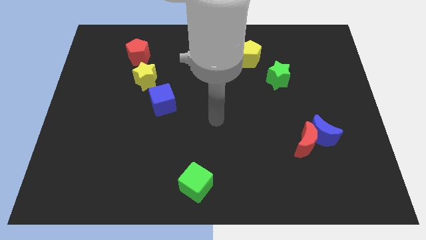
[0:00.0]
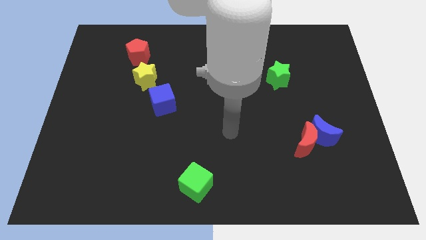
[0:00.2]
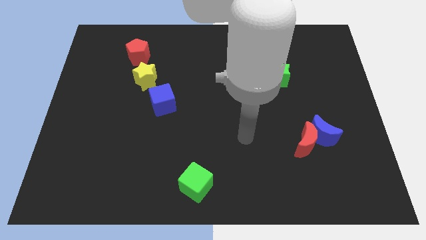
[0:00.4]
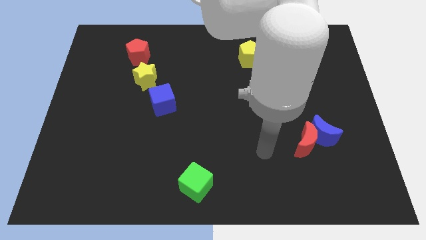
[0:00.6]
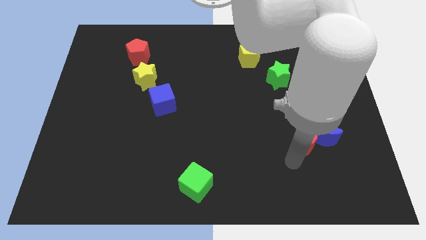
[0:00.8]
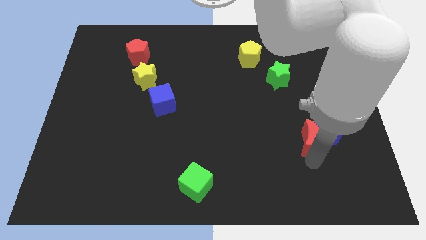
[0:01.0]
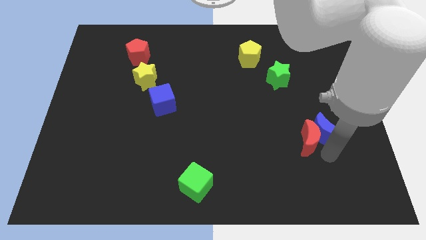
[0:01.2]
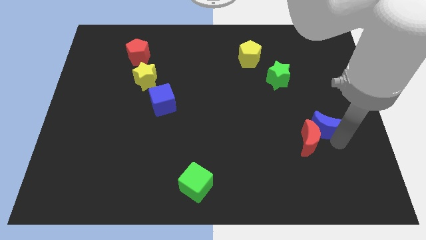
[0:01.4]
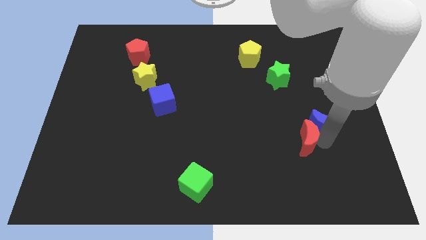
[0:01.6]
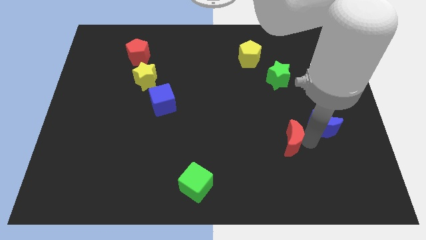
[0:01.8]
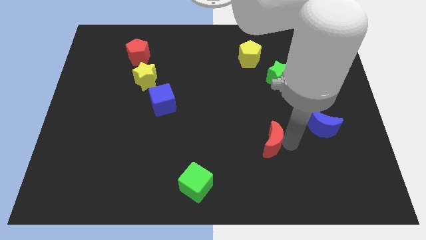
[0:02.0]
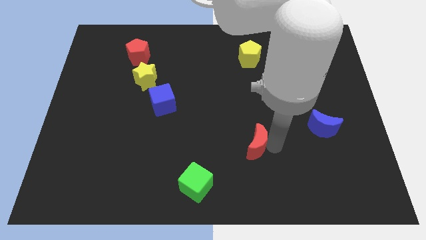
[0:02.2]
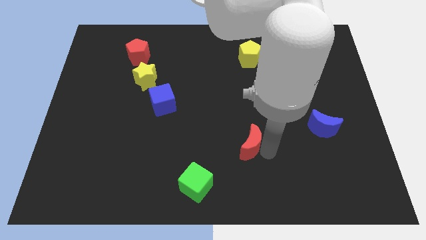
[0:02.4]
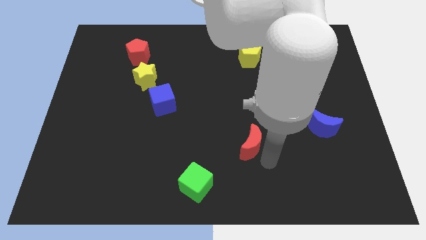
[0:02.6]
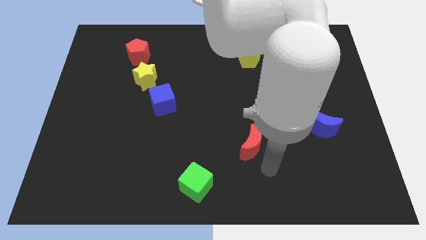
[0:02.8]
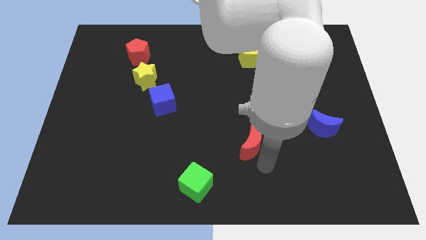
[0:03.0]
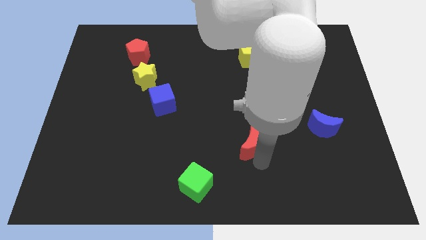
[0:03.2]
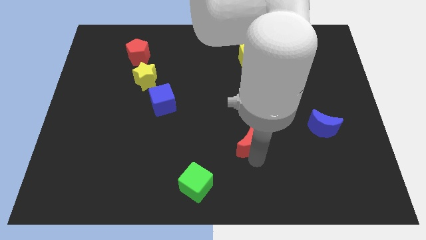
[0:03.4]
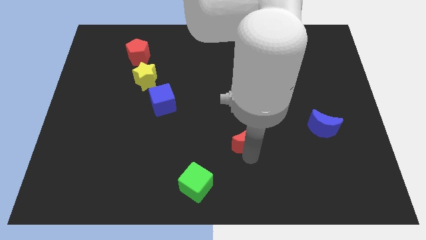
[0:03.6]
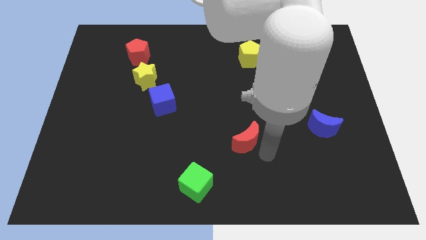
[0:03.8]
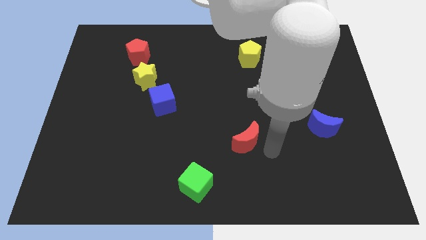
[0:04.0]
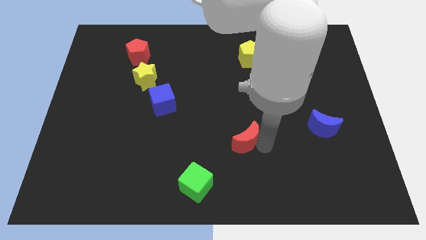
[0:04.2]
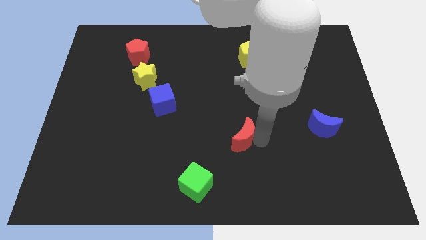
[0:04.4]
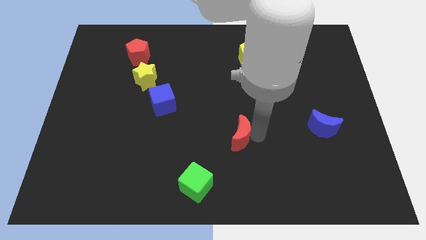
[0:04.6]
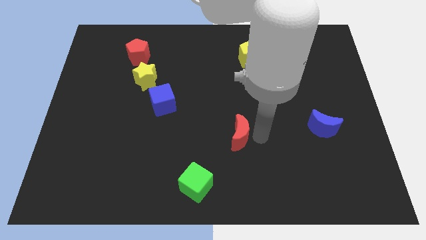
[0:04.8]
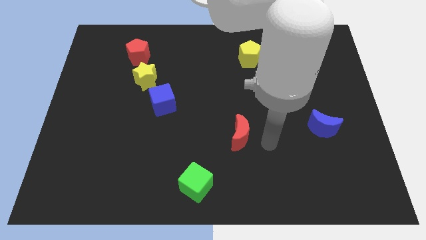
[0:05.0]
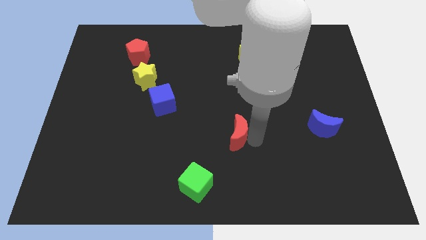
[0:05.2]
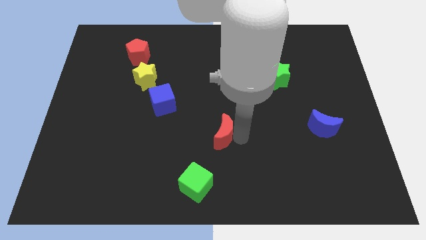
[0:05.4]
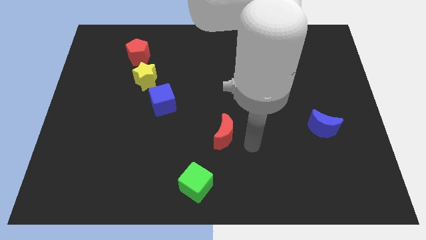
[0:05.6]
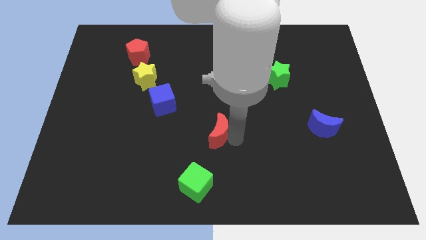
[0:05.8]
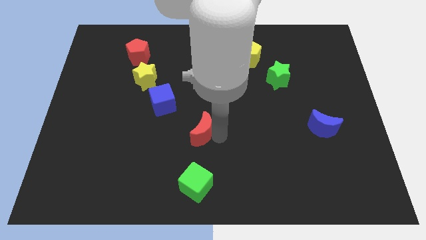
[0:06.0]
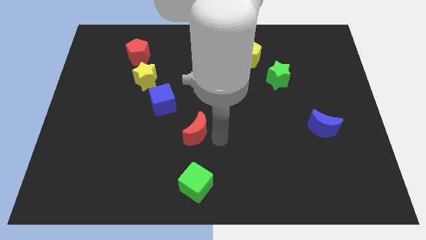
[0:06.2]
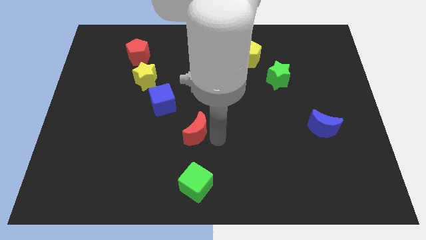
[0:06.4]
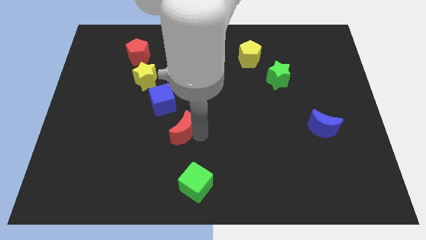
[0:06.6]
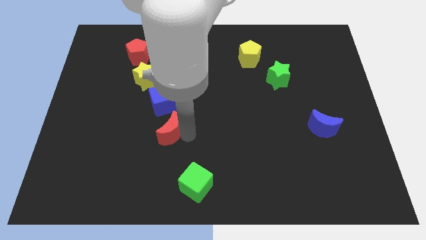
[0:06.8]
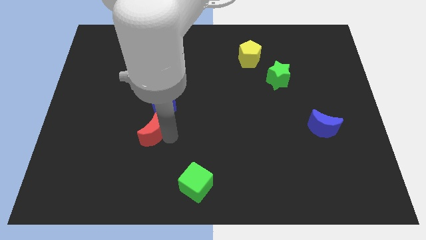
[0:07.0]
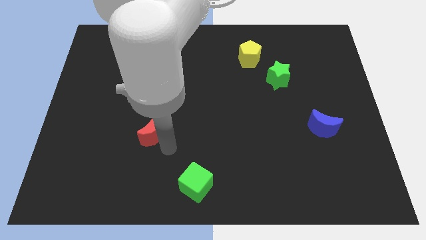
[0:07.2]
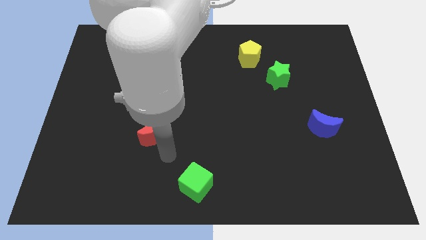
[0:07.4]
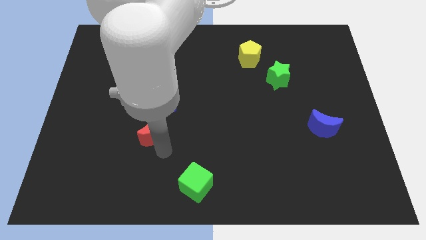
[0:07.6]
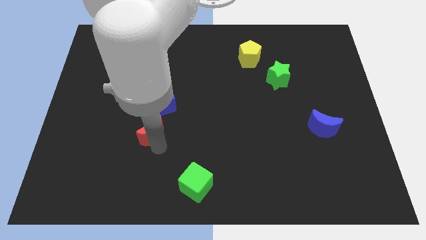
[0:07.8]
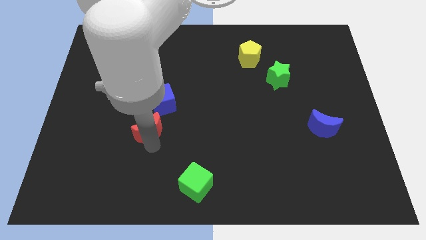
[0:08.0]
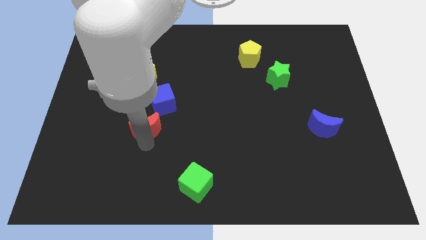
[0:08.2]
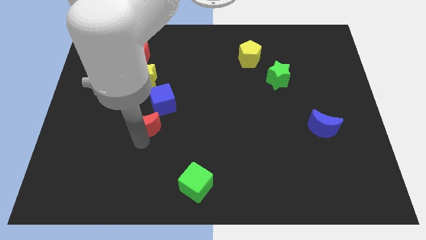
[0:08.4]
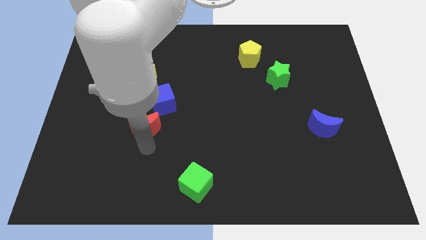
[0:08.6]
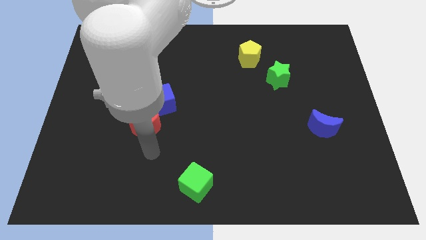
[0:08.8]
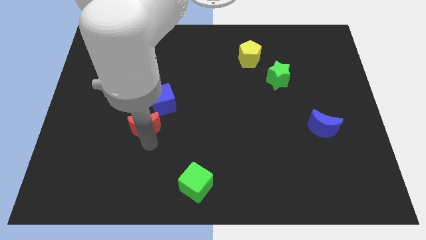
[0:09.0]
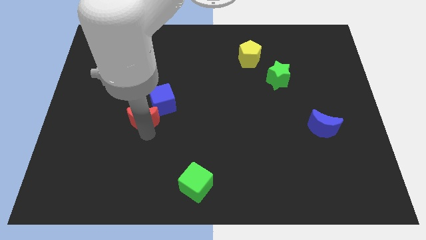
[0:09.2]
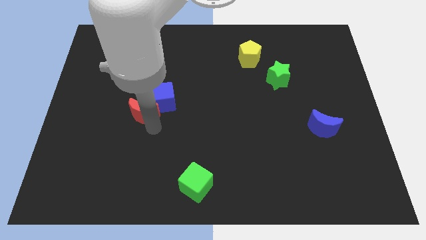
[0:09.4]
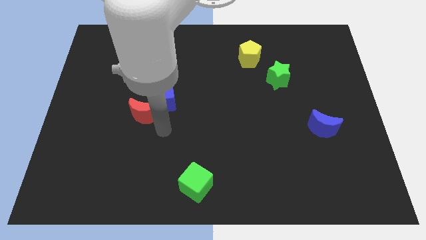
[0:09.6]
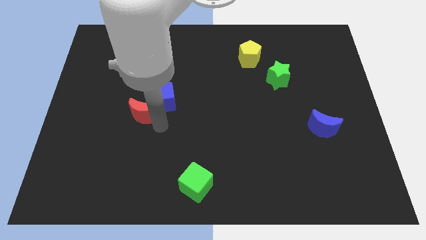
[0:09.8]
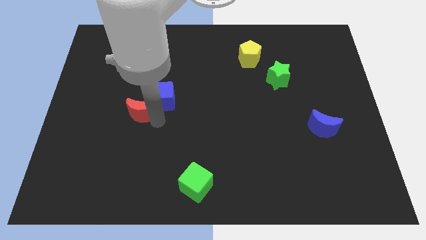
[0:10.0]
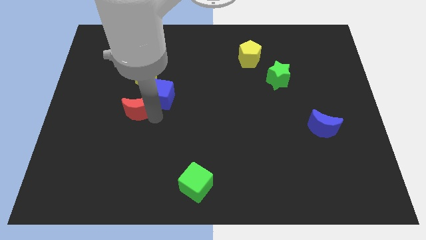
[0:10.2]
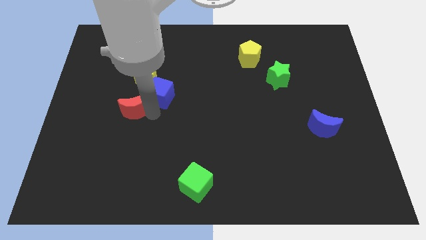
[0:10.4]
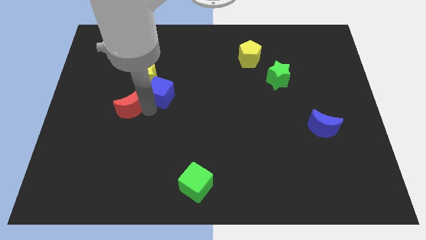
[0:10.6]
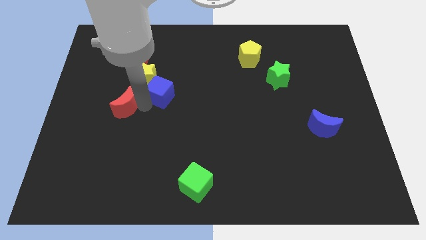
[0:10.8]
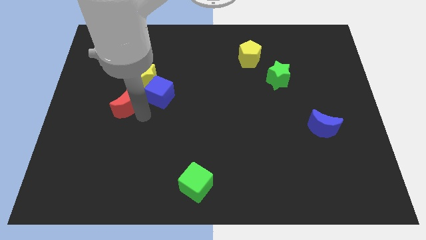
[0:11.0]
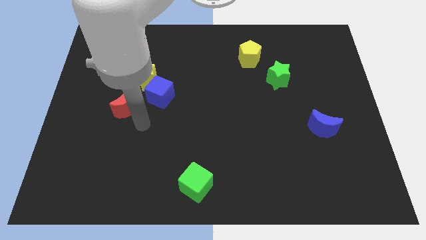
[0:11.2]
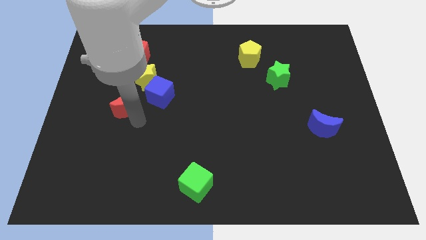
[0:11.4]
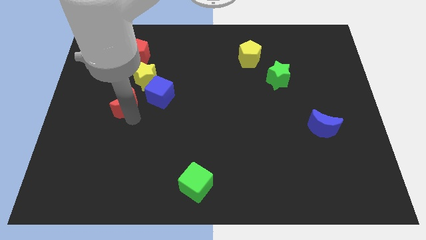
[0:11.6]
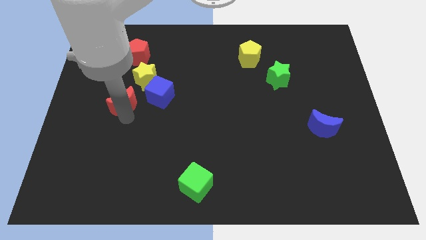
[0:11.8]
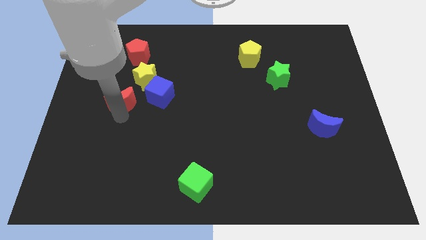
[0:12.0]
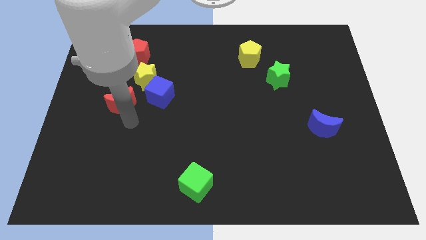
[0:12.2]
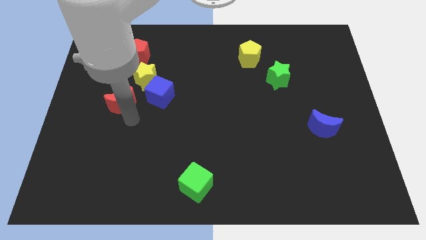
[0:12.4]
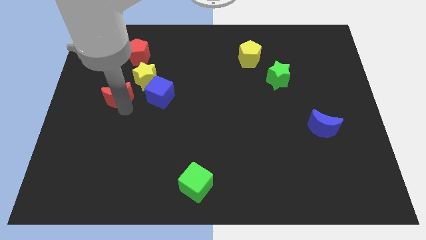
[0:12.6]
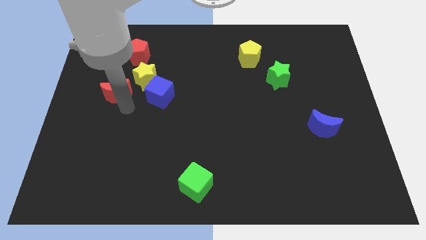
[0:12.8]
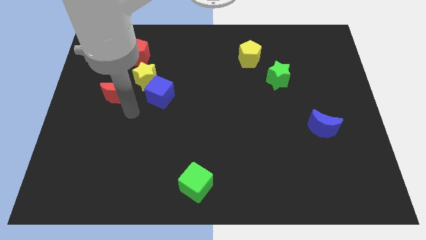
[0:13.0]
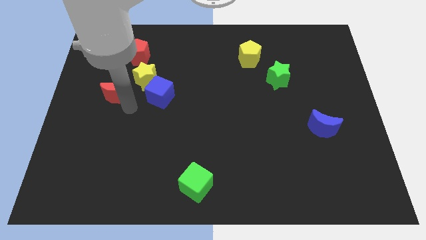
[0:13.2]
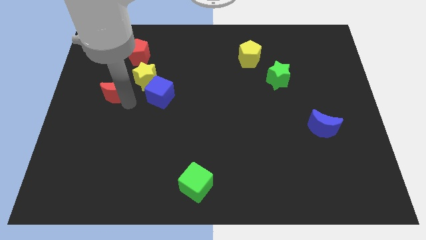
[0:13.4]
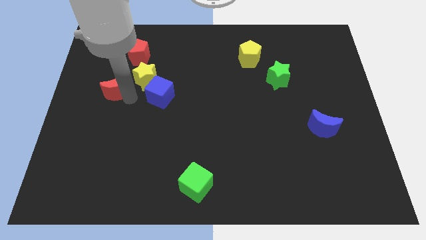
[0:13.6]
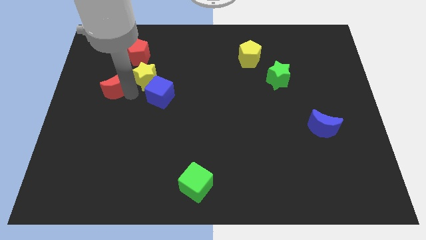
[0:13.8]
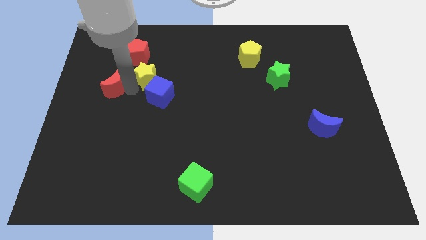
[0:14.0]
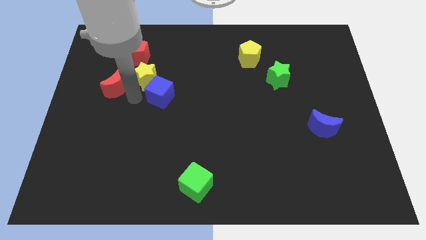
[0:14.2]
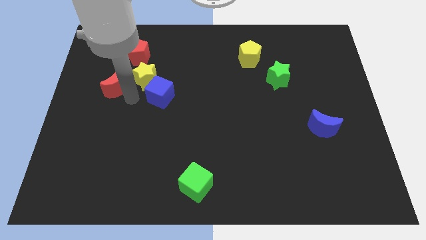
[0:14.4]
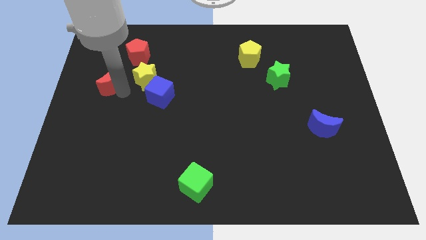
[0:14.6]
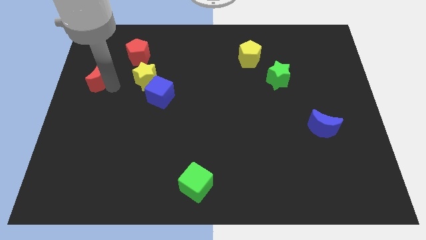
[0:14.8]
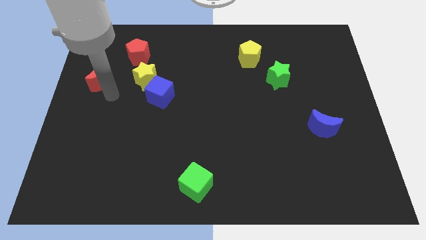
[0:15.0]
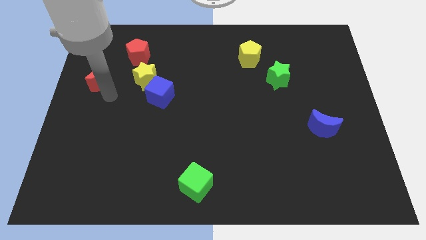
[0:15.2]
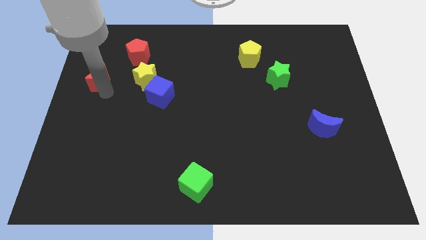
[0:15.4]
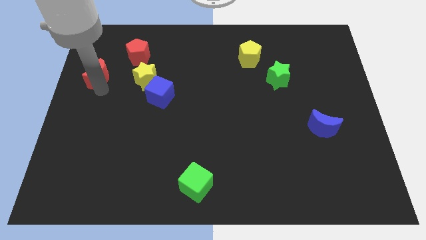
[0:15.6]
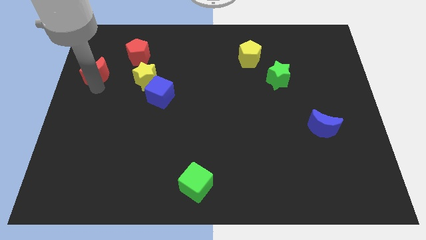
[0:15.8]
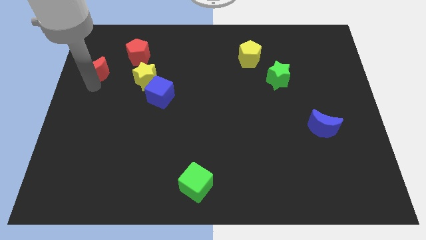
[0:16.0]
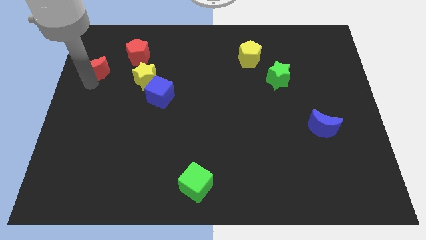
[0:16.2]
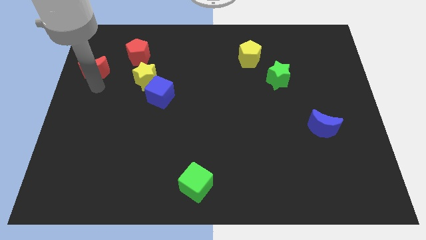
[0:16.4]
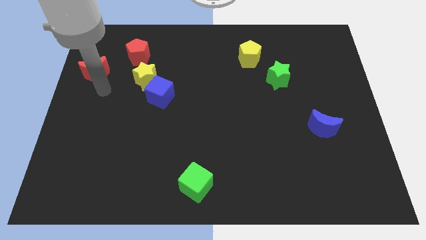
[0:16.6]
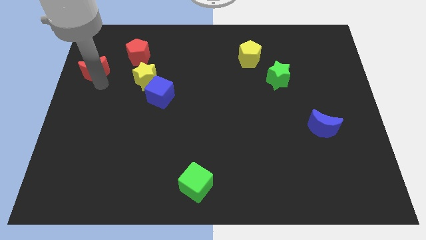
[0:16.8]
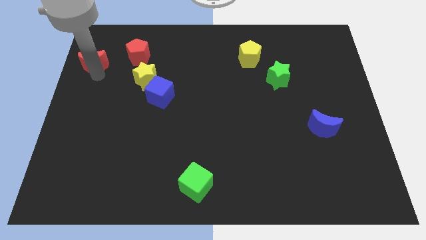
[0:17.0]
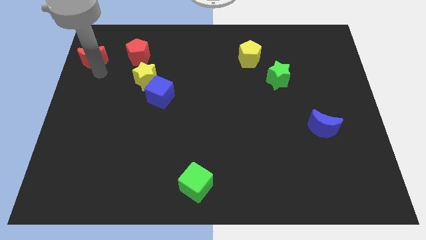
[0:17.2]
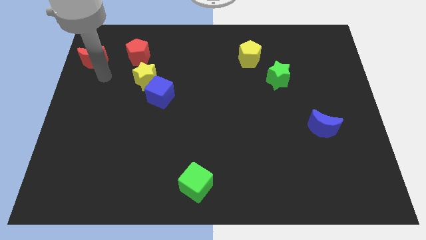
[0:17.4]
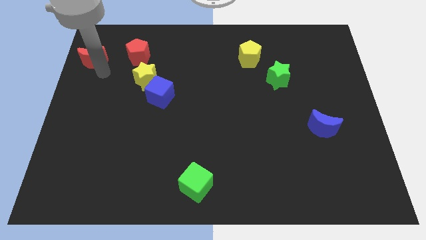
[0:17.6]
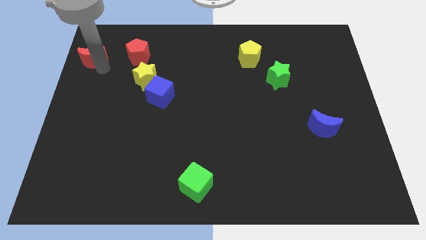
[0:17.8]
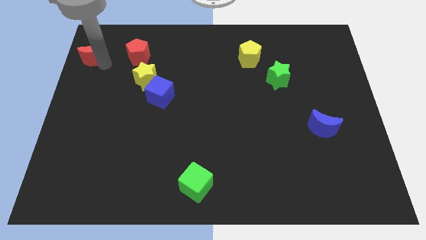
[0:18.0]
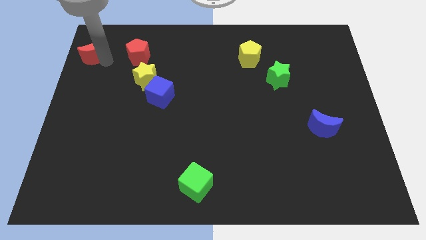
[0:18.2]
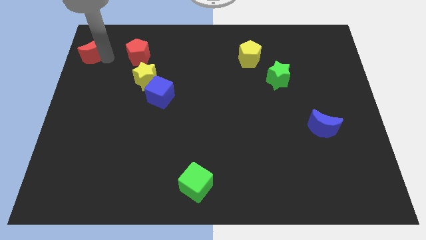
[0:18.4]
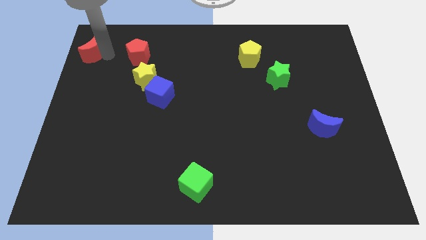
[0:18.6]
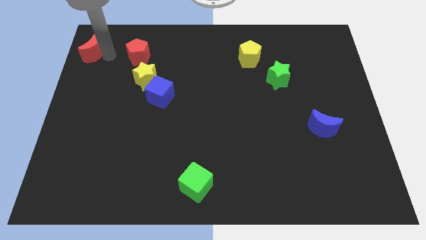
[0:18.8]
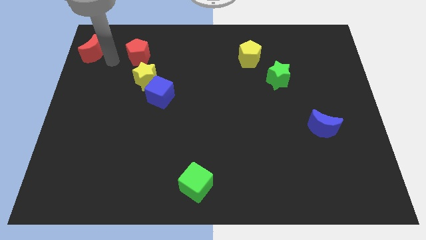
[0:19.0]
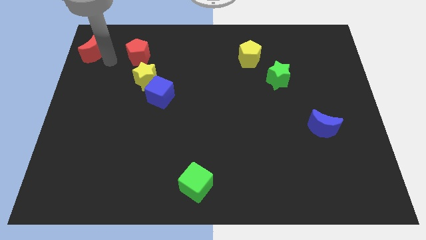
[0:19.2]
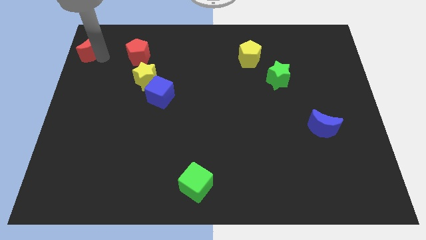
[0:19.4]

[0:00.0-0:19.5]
push the red moon to the upper left corner
